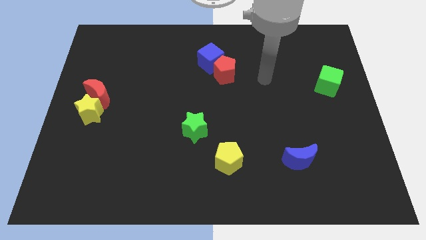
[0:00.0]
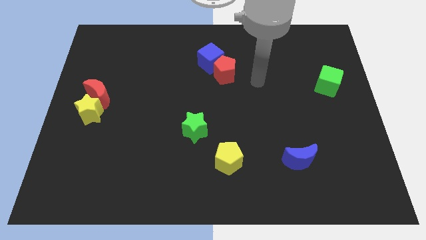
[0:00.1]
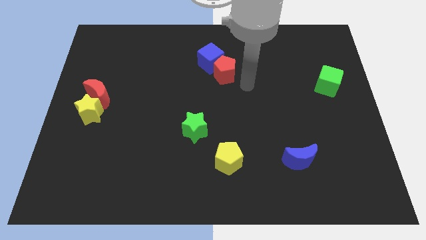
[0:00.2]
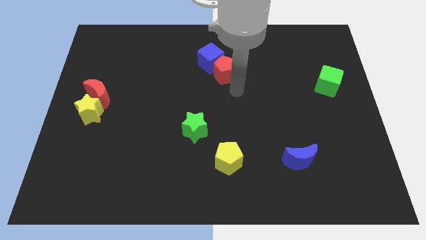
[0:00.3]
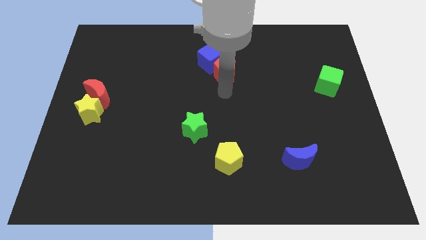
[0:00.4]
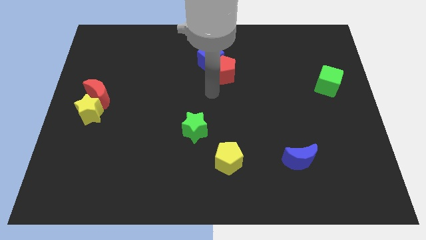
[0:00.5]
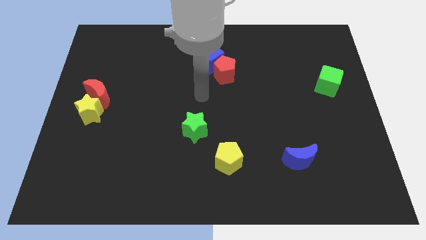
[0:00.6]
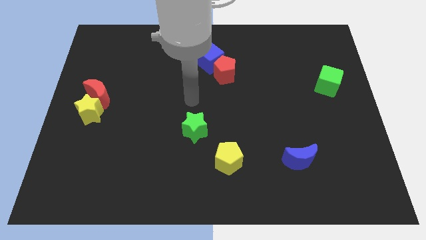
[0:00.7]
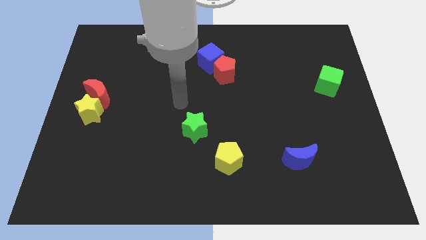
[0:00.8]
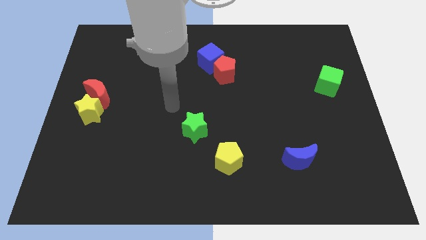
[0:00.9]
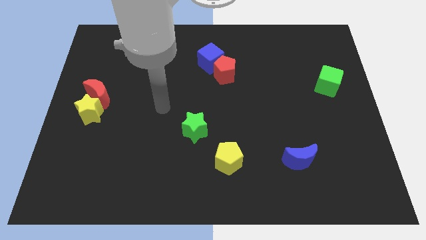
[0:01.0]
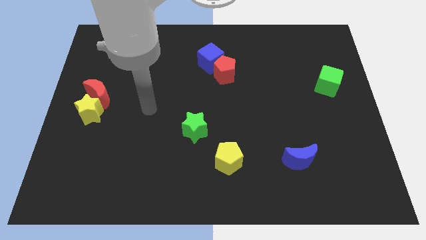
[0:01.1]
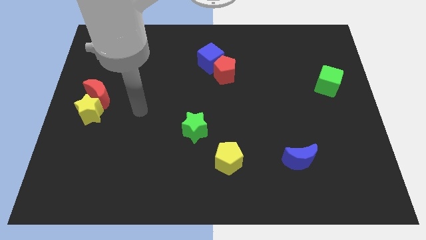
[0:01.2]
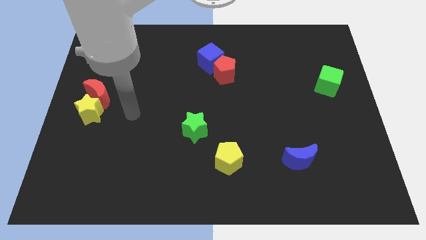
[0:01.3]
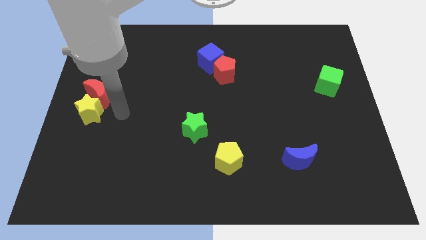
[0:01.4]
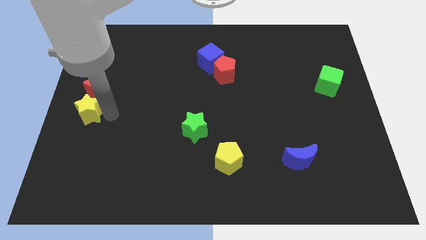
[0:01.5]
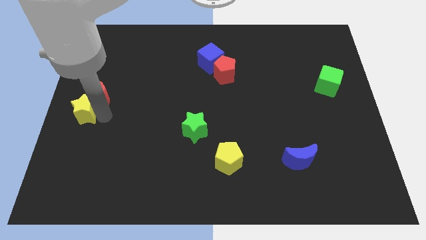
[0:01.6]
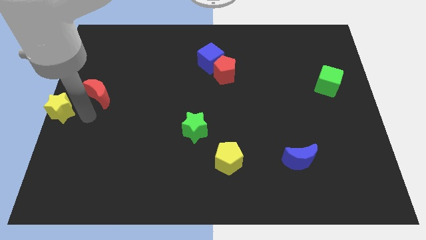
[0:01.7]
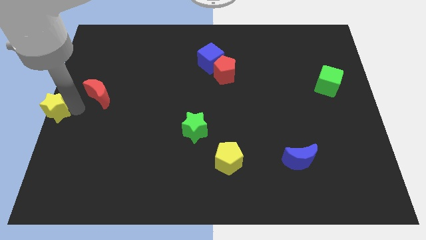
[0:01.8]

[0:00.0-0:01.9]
pull the red moon apart from the yellow star

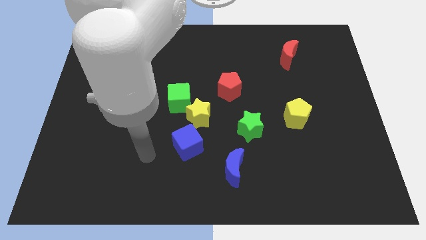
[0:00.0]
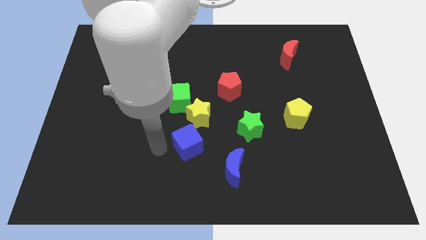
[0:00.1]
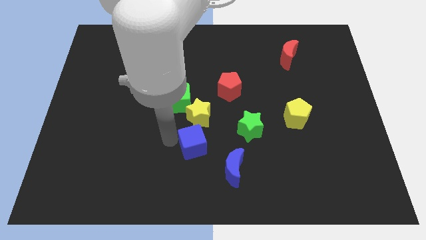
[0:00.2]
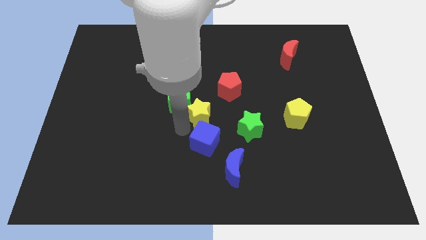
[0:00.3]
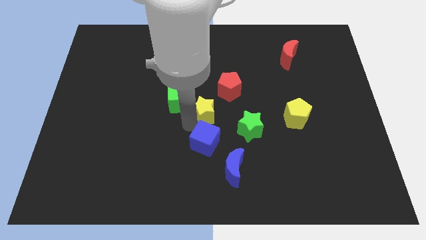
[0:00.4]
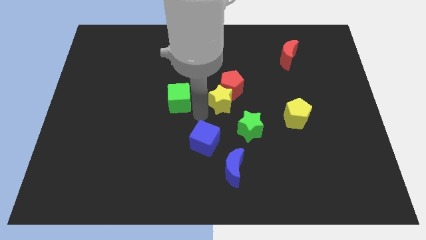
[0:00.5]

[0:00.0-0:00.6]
separate the green cube from the yellow star

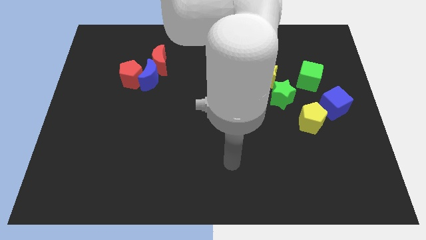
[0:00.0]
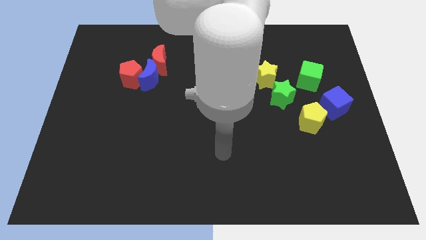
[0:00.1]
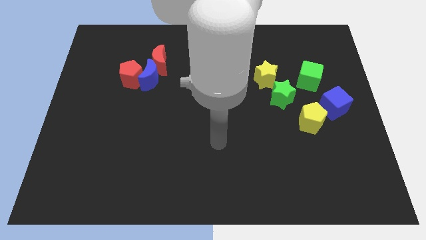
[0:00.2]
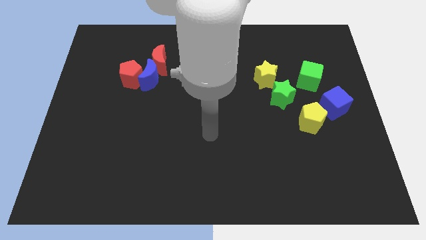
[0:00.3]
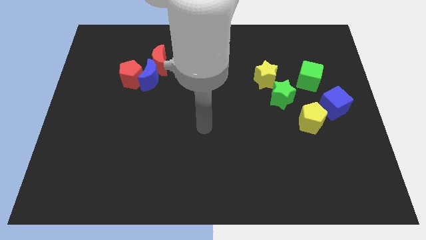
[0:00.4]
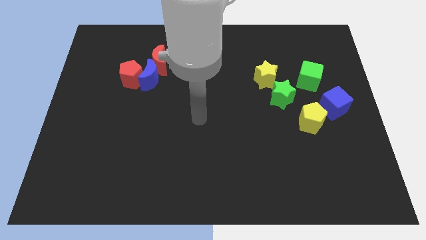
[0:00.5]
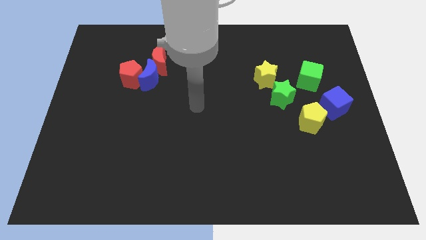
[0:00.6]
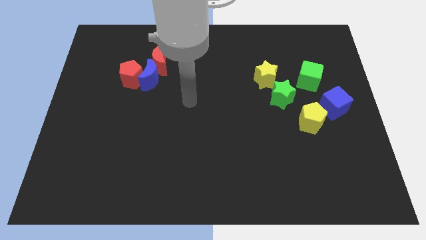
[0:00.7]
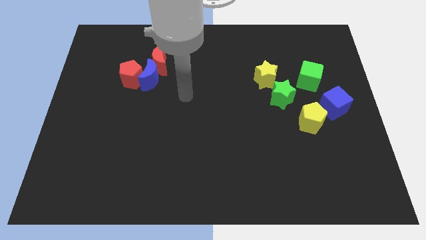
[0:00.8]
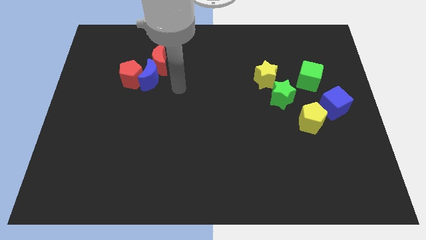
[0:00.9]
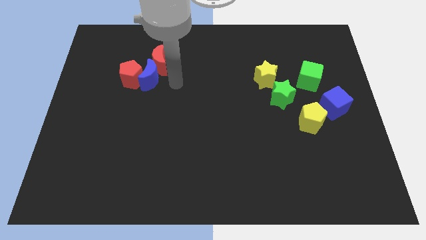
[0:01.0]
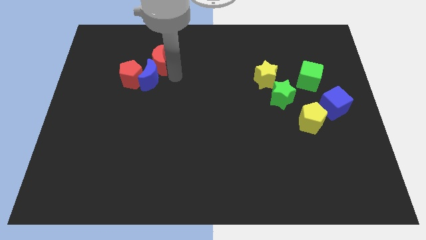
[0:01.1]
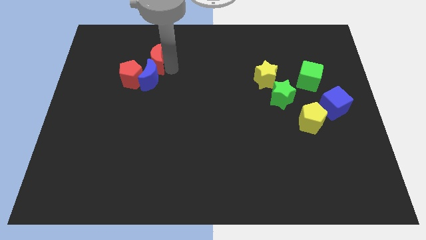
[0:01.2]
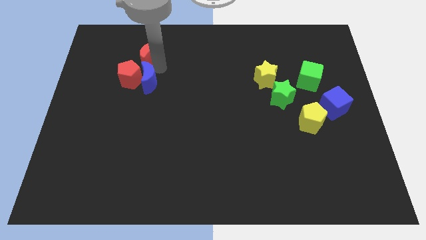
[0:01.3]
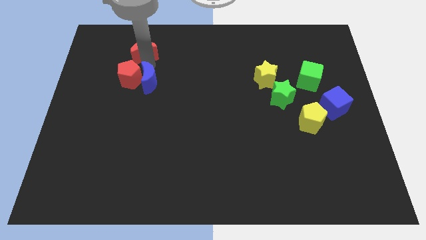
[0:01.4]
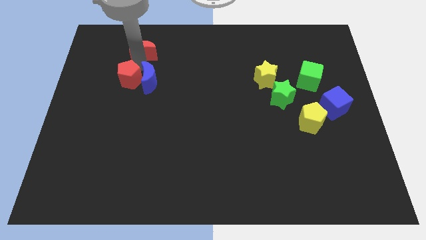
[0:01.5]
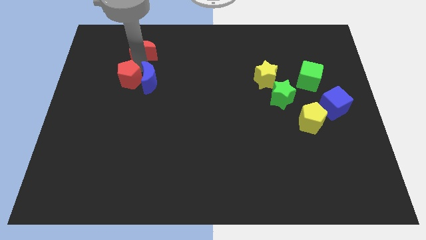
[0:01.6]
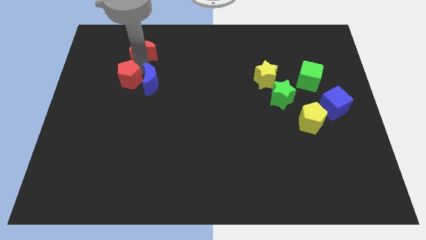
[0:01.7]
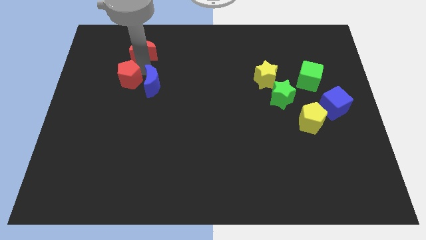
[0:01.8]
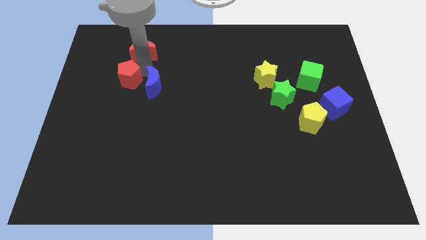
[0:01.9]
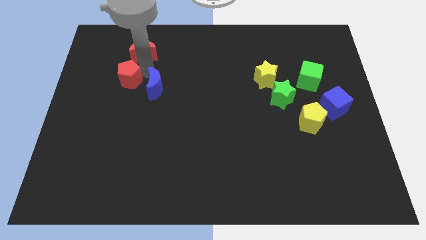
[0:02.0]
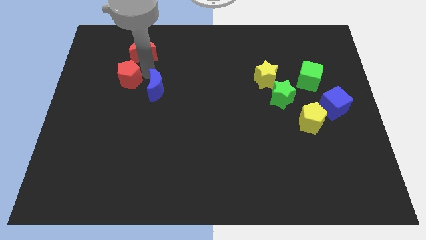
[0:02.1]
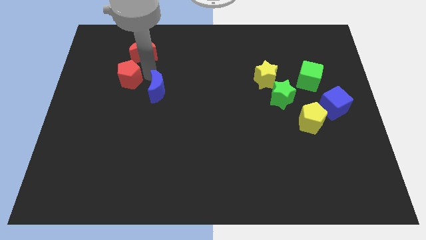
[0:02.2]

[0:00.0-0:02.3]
separate the blue moon from the red pentagon and red moon

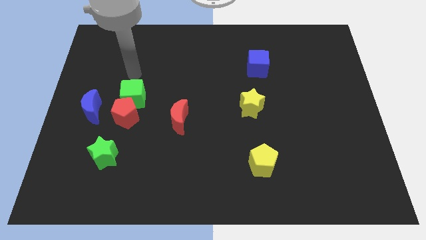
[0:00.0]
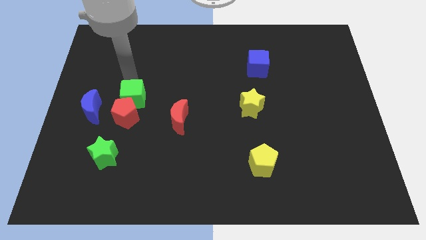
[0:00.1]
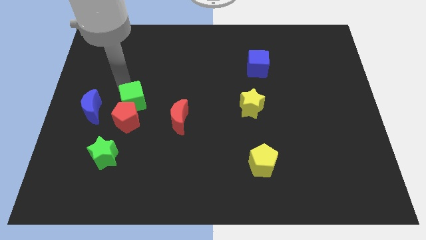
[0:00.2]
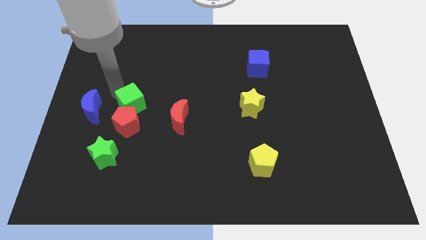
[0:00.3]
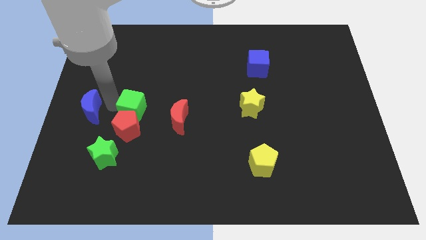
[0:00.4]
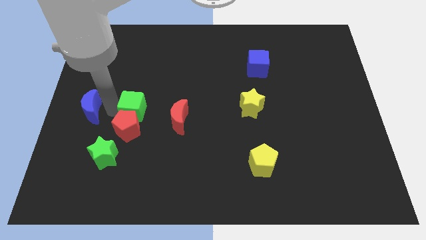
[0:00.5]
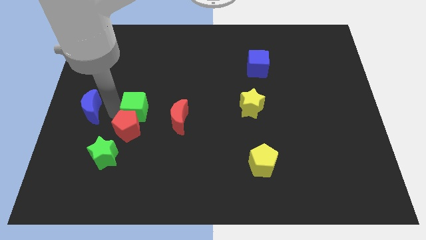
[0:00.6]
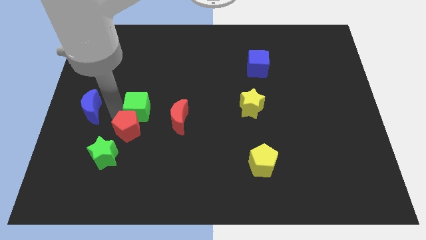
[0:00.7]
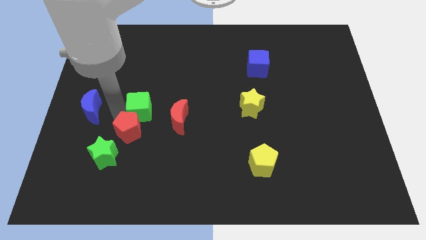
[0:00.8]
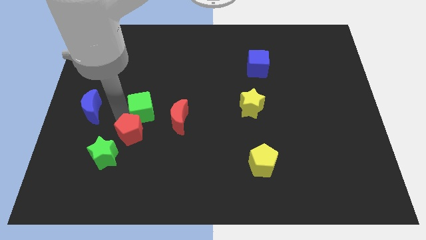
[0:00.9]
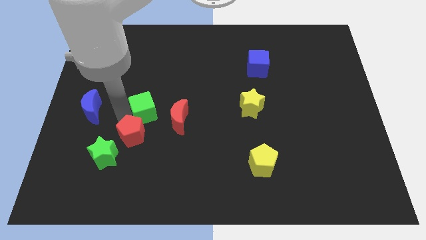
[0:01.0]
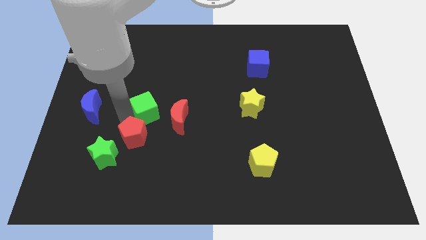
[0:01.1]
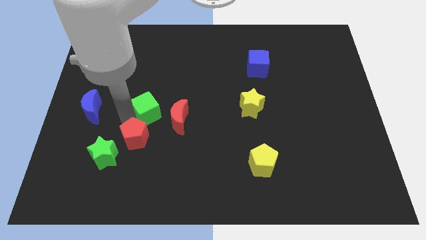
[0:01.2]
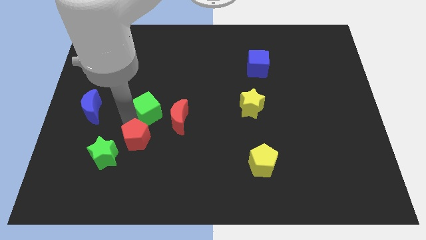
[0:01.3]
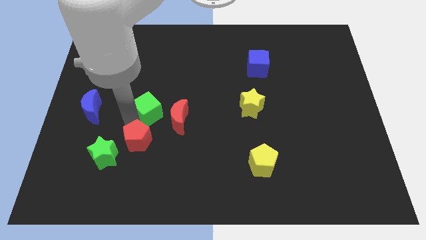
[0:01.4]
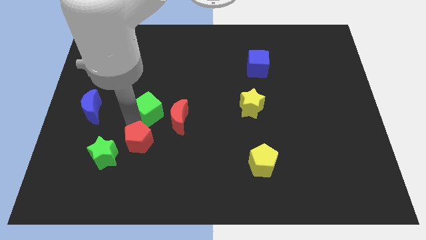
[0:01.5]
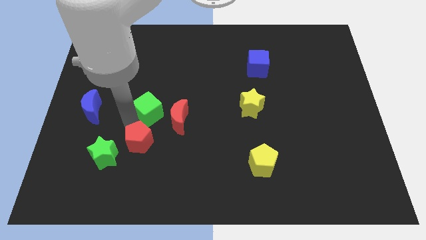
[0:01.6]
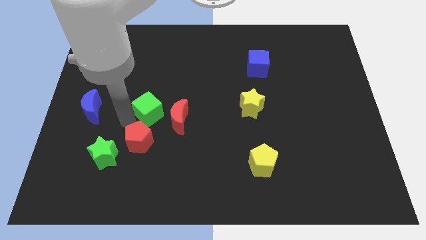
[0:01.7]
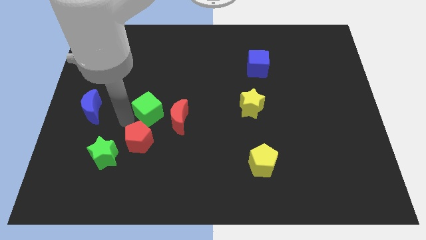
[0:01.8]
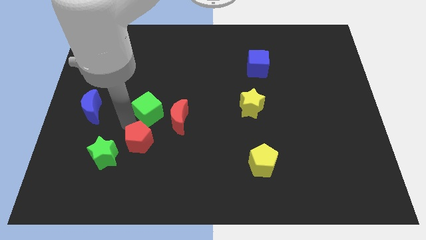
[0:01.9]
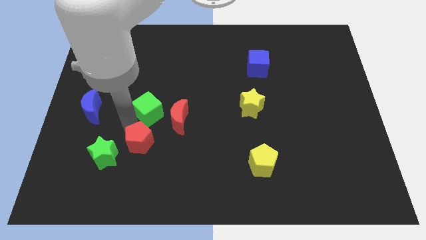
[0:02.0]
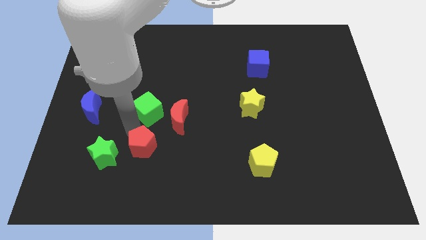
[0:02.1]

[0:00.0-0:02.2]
move the red pentagon away from the green cube and blue moon

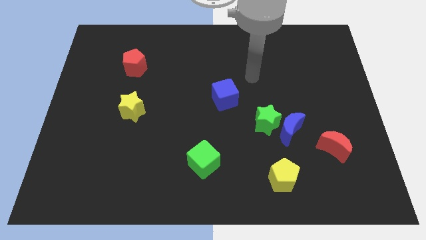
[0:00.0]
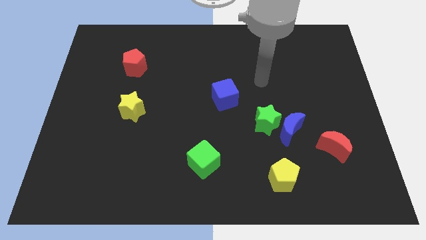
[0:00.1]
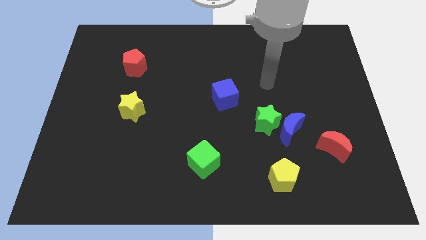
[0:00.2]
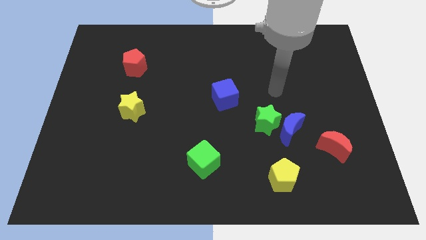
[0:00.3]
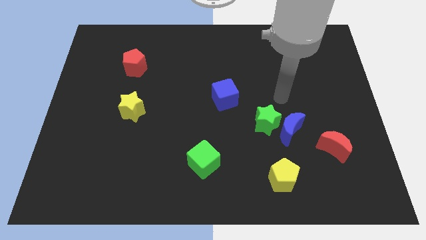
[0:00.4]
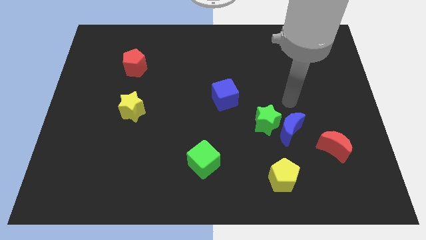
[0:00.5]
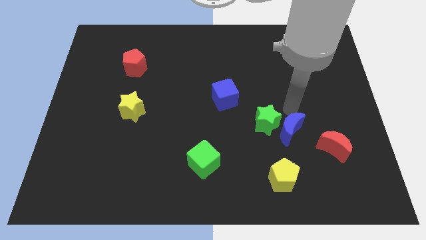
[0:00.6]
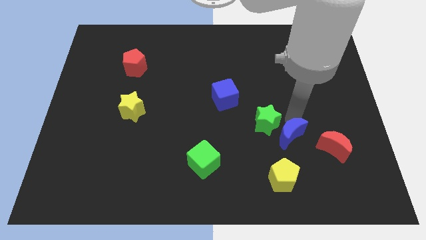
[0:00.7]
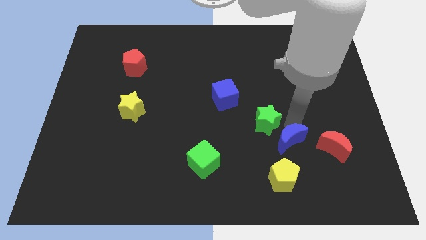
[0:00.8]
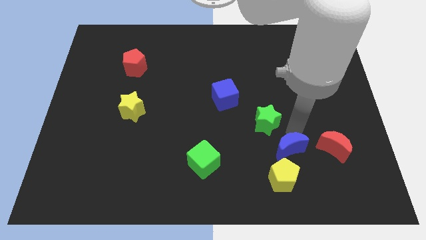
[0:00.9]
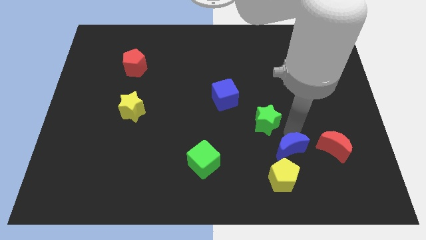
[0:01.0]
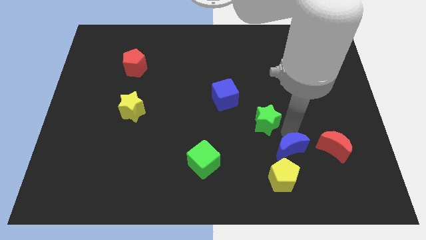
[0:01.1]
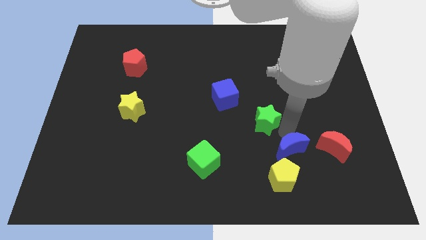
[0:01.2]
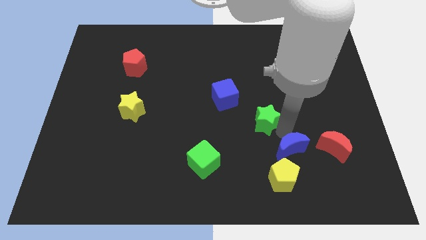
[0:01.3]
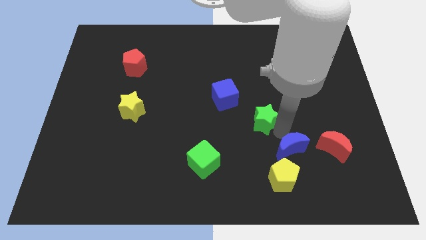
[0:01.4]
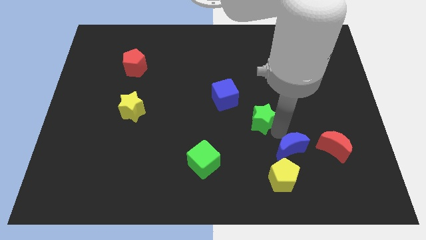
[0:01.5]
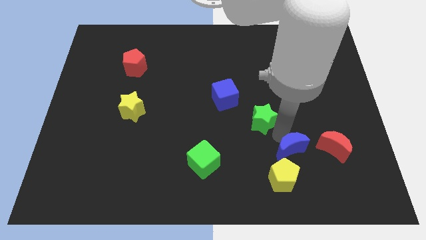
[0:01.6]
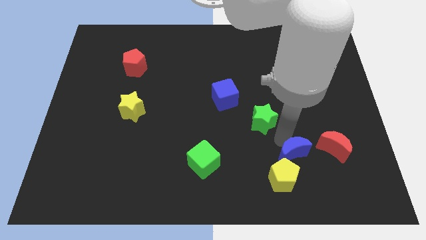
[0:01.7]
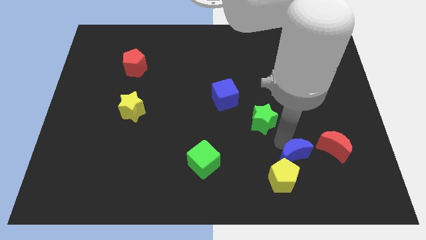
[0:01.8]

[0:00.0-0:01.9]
separate the green star from the blue moon

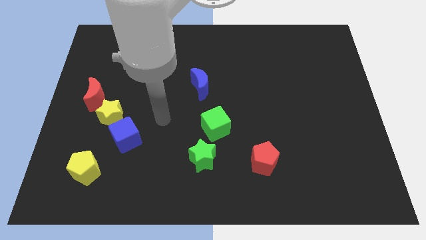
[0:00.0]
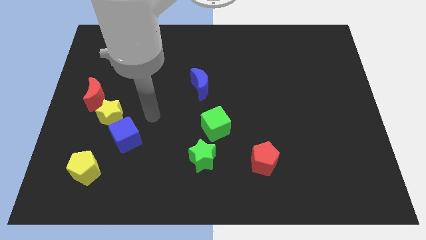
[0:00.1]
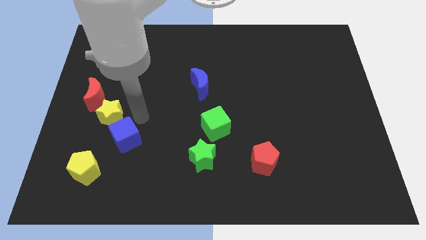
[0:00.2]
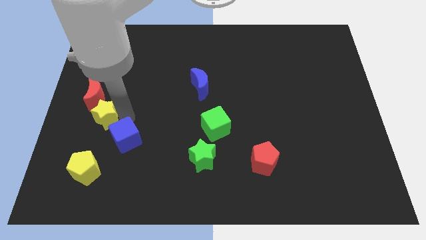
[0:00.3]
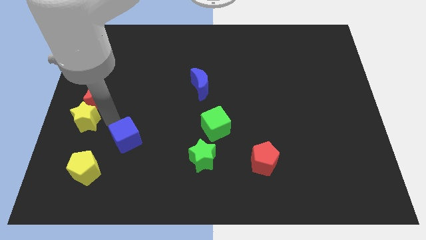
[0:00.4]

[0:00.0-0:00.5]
separate the blue cube from the yellow star

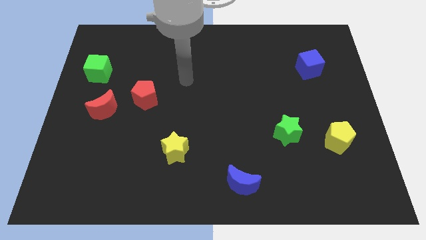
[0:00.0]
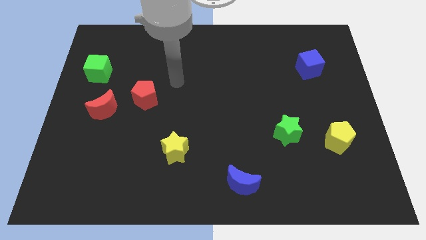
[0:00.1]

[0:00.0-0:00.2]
move the red moon away from the red pentagon
